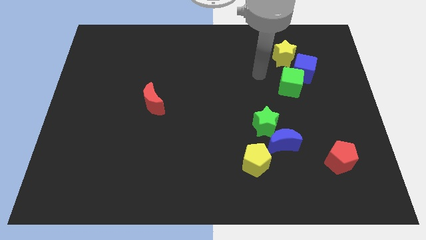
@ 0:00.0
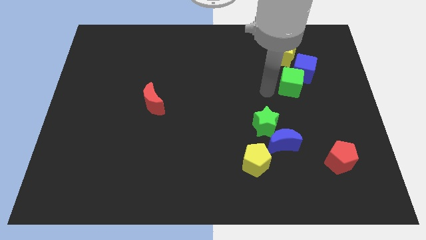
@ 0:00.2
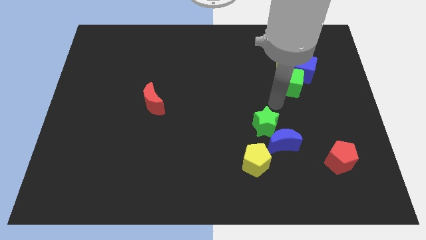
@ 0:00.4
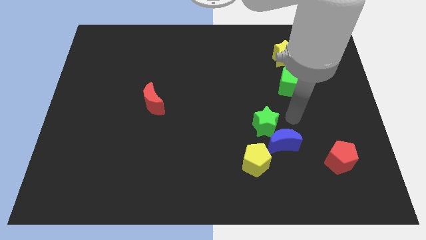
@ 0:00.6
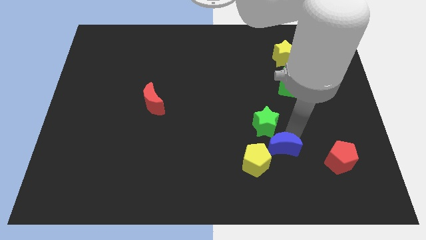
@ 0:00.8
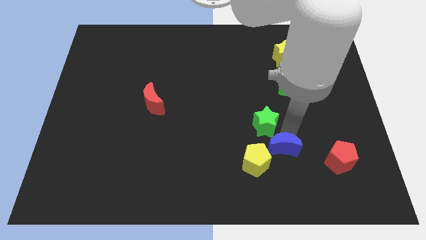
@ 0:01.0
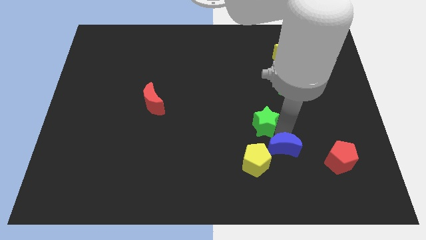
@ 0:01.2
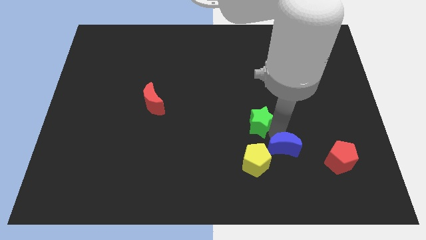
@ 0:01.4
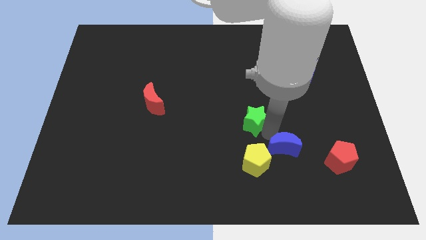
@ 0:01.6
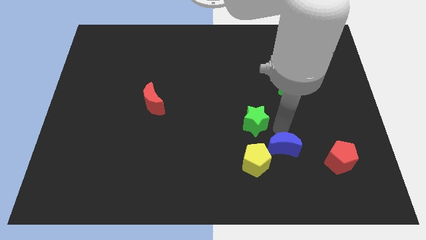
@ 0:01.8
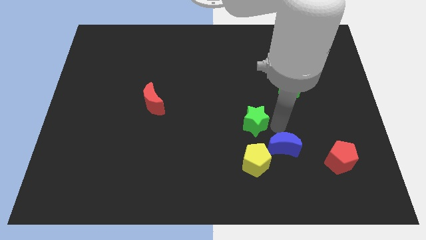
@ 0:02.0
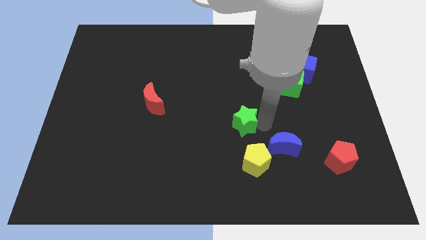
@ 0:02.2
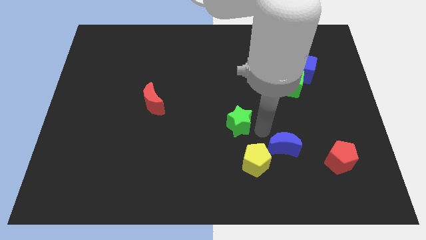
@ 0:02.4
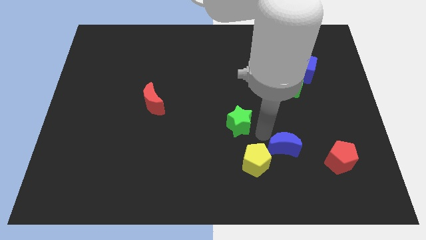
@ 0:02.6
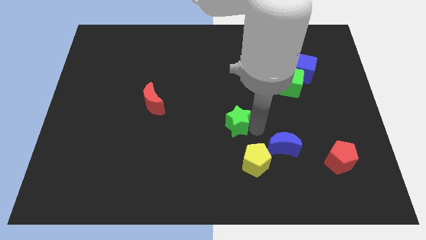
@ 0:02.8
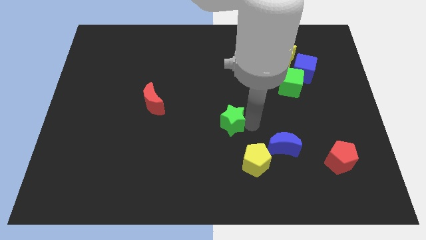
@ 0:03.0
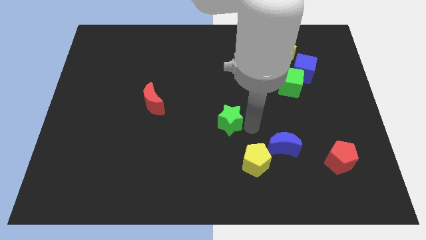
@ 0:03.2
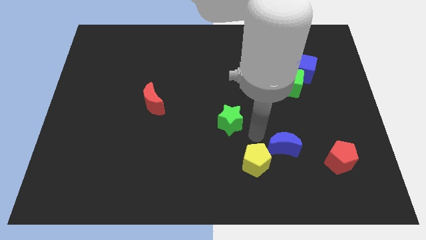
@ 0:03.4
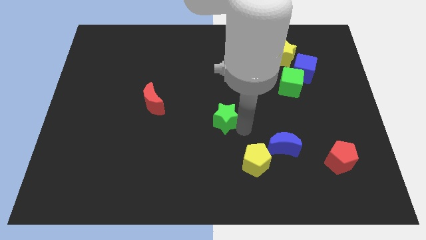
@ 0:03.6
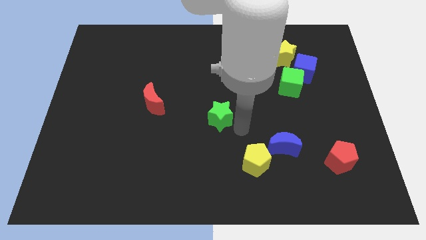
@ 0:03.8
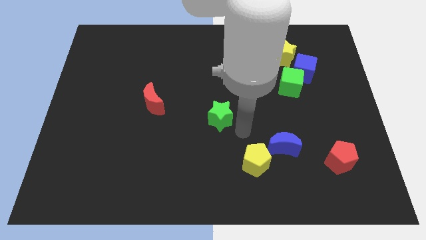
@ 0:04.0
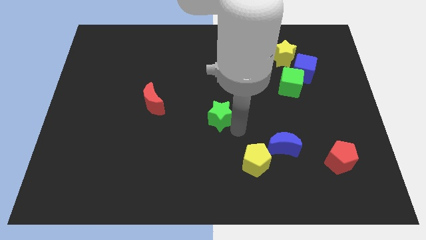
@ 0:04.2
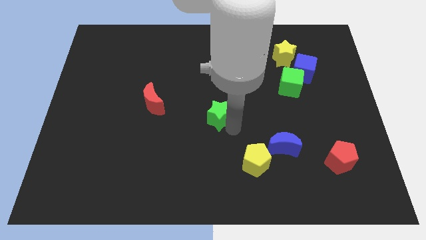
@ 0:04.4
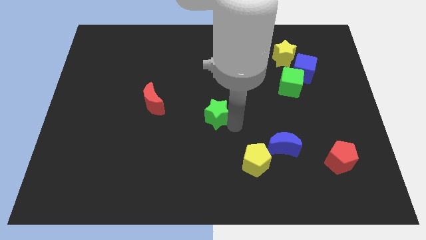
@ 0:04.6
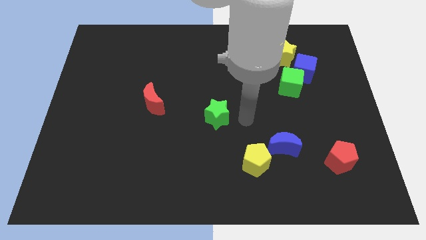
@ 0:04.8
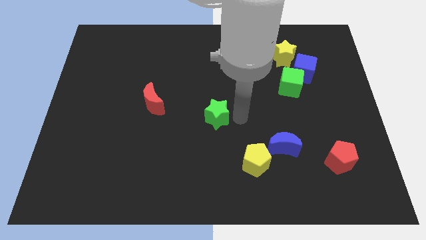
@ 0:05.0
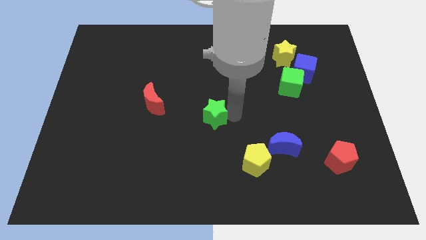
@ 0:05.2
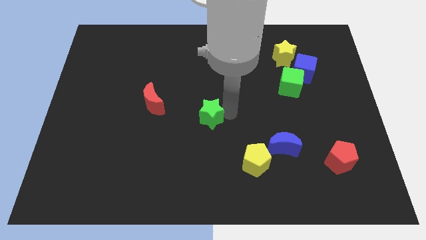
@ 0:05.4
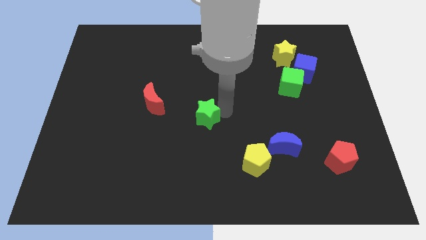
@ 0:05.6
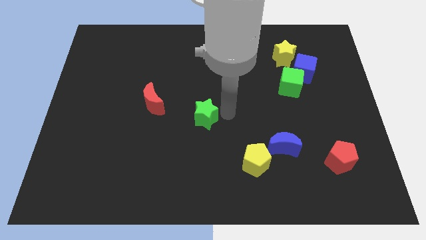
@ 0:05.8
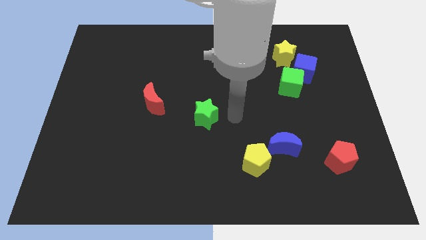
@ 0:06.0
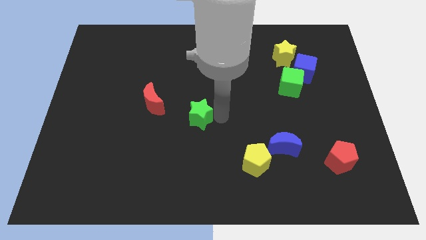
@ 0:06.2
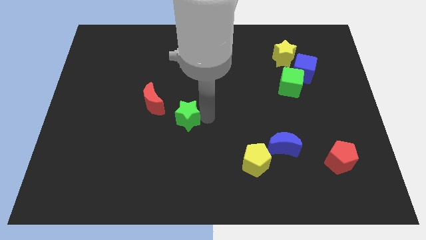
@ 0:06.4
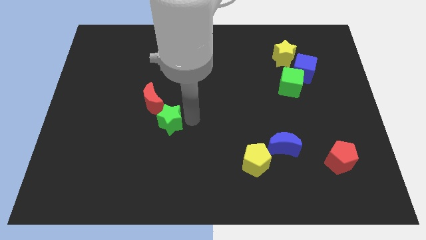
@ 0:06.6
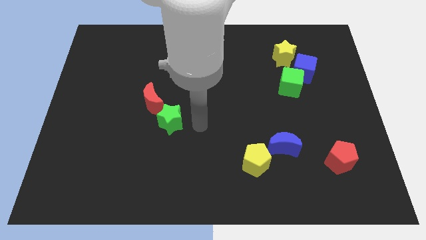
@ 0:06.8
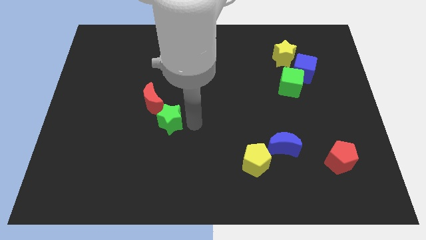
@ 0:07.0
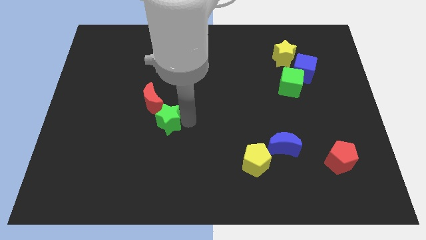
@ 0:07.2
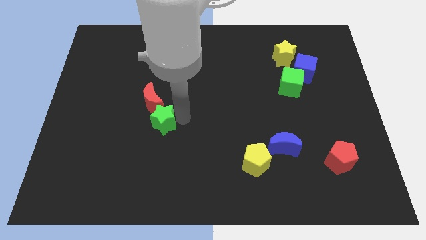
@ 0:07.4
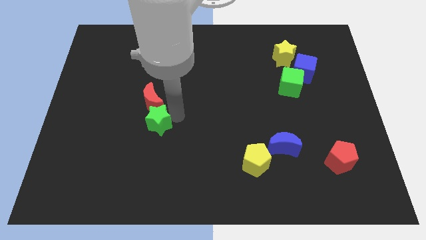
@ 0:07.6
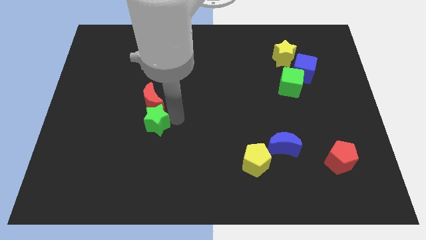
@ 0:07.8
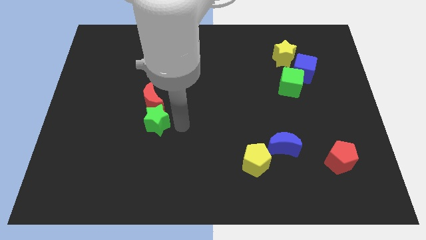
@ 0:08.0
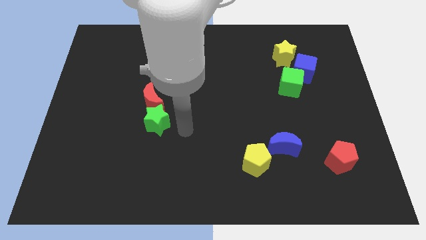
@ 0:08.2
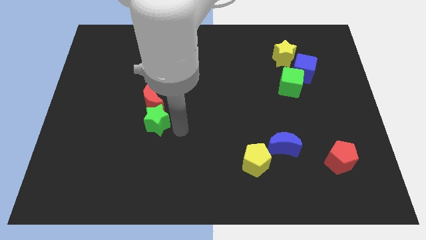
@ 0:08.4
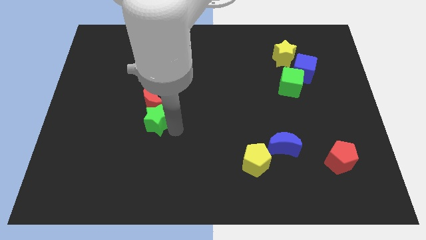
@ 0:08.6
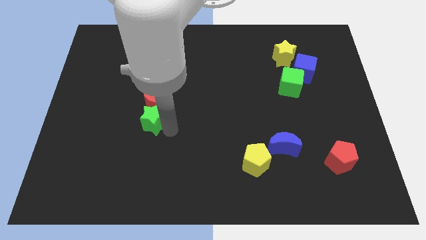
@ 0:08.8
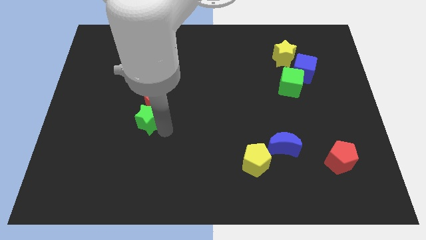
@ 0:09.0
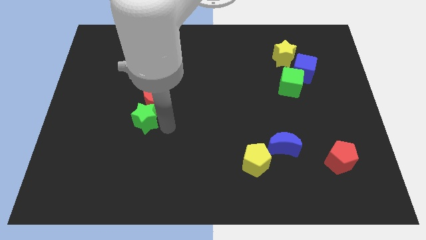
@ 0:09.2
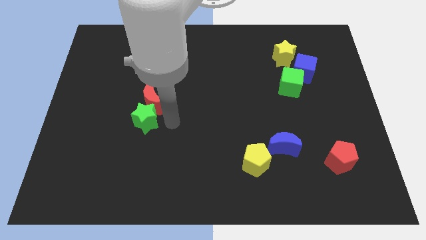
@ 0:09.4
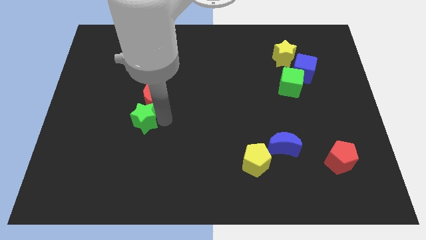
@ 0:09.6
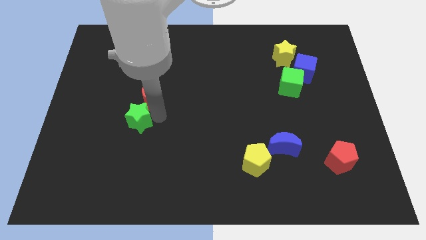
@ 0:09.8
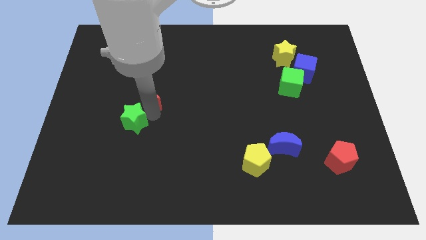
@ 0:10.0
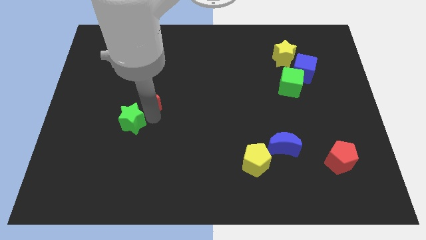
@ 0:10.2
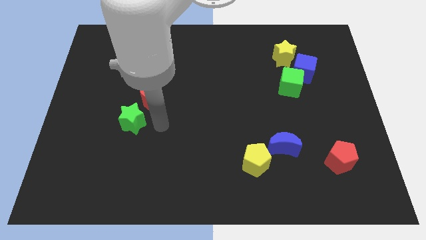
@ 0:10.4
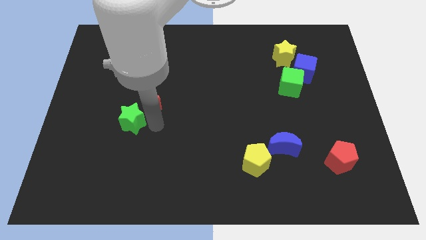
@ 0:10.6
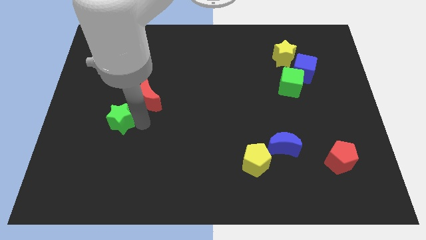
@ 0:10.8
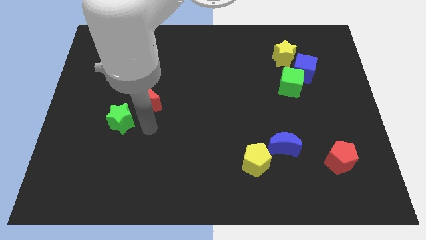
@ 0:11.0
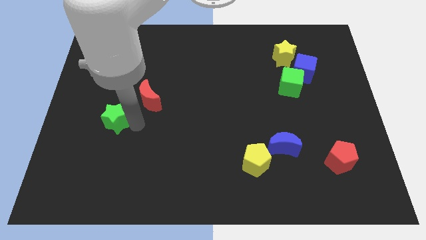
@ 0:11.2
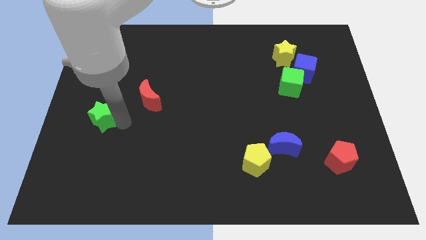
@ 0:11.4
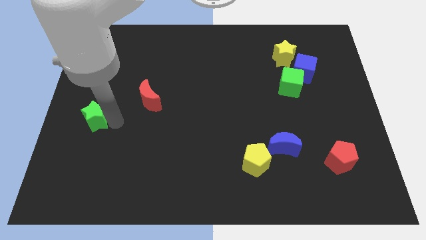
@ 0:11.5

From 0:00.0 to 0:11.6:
move the green star to the left side
